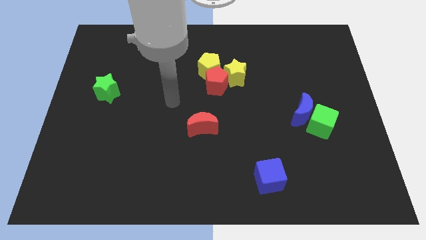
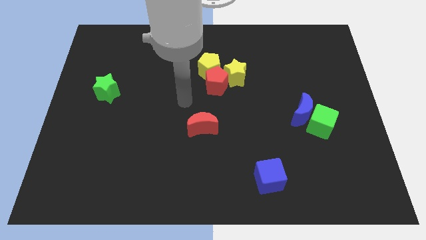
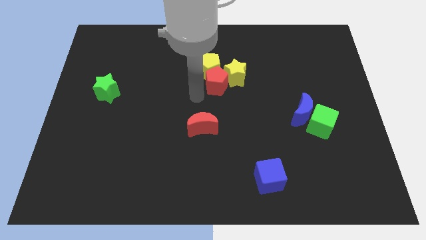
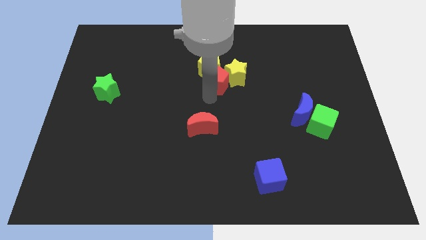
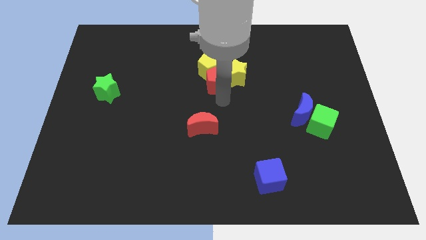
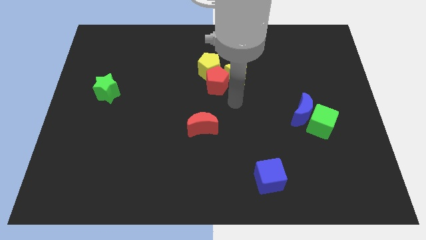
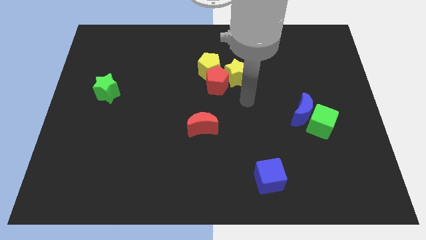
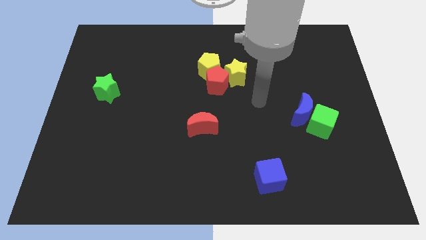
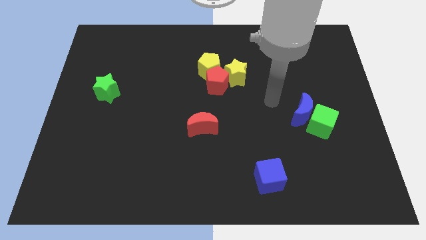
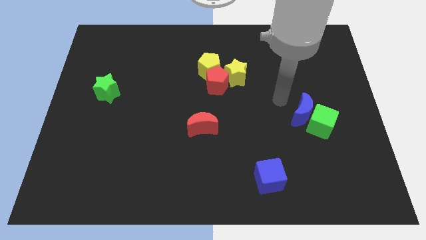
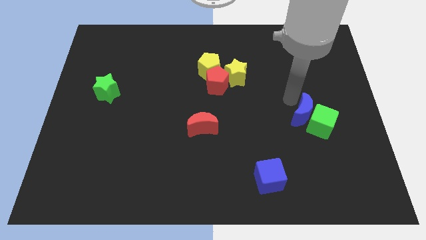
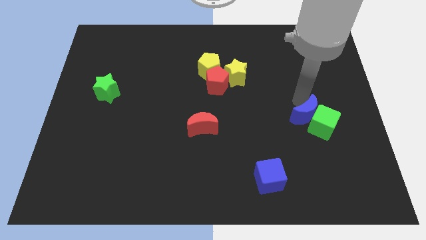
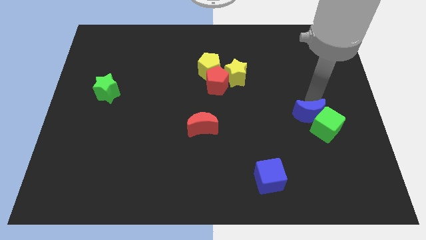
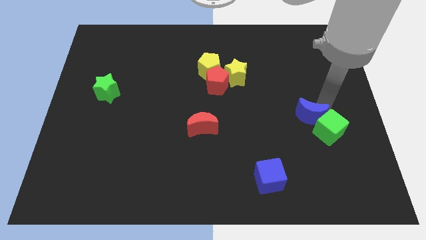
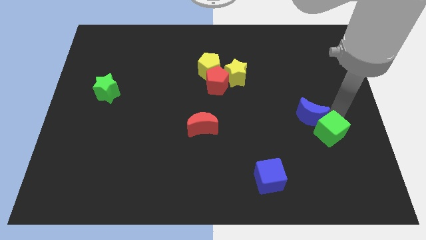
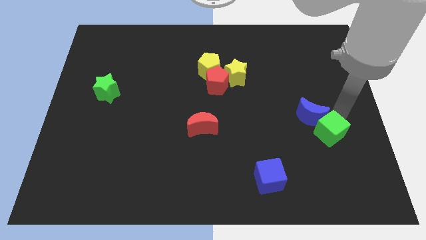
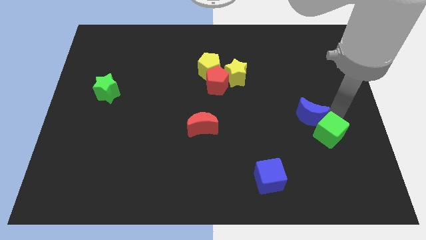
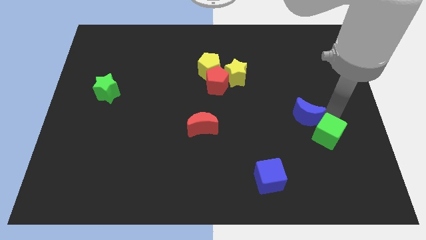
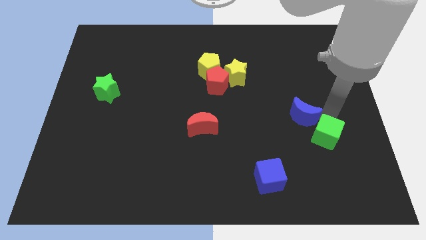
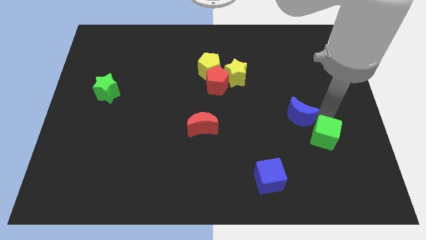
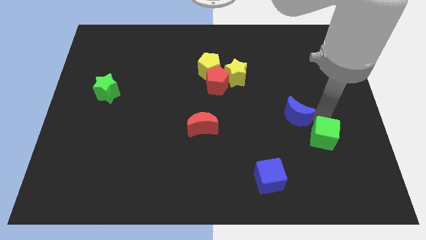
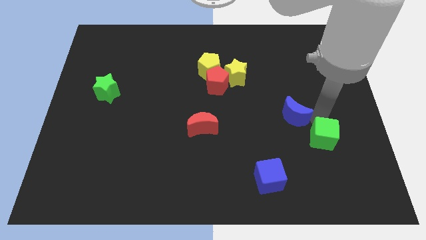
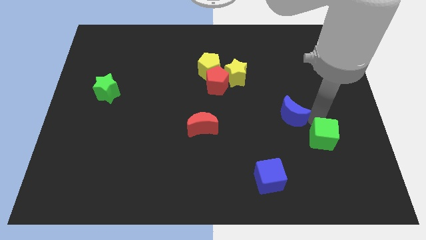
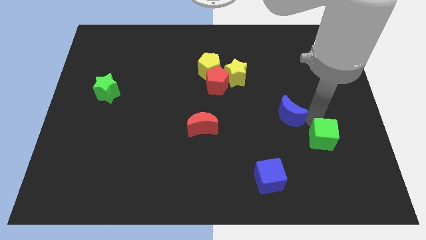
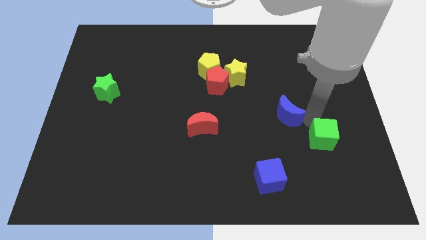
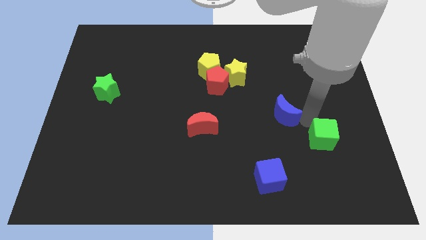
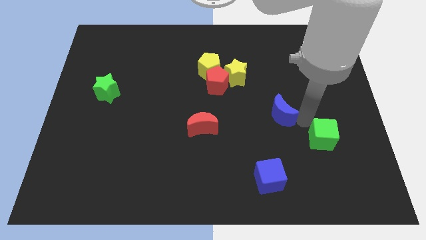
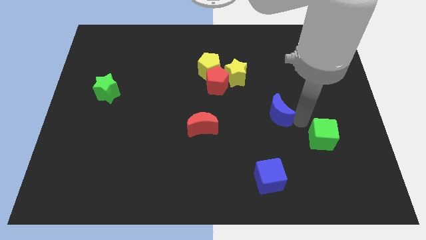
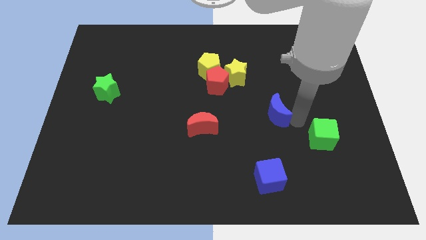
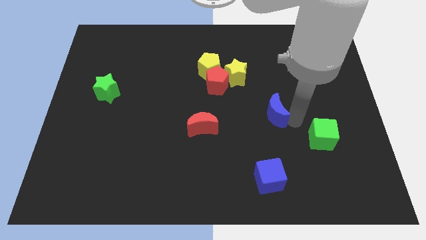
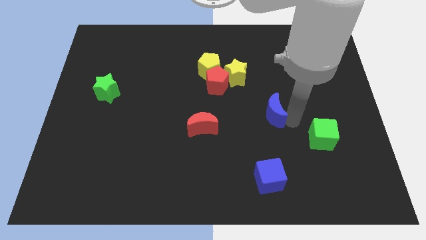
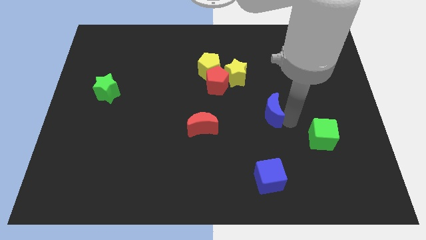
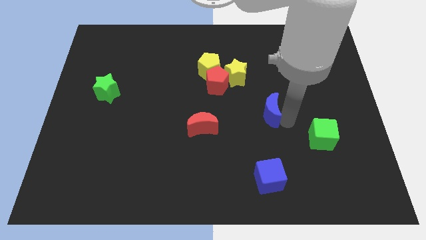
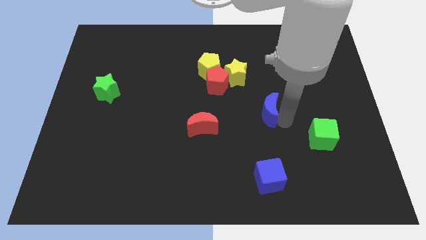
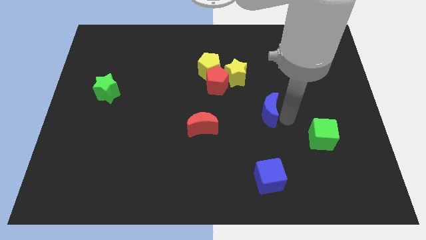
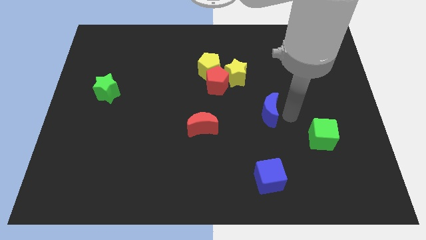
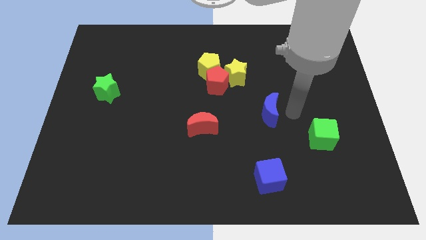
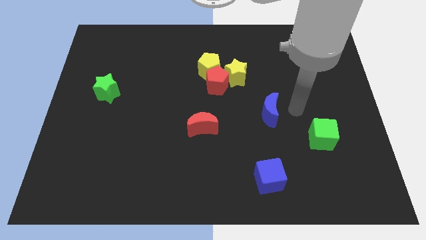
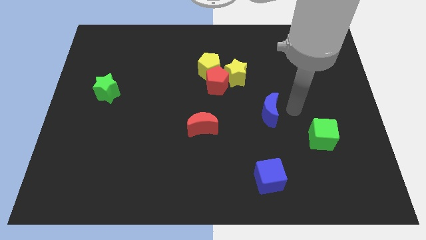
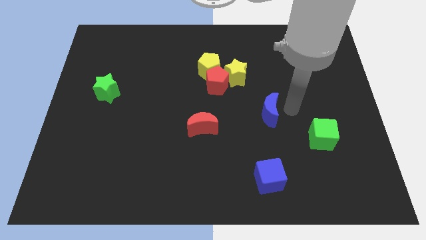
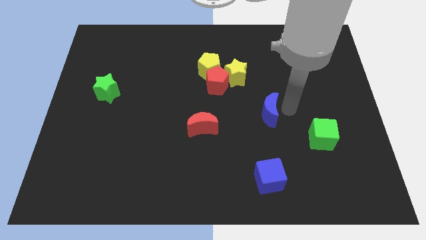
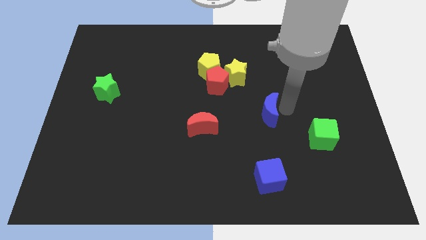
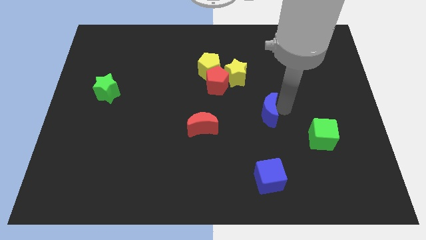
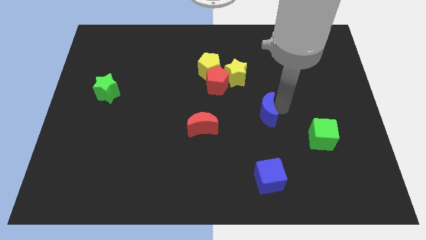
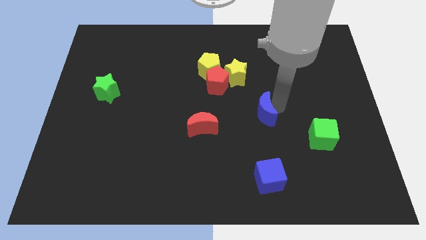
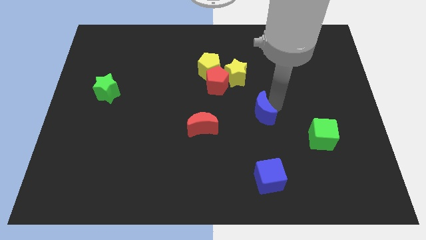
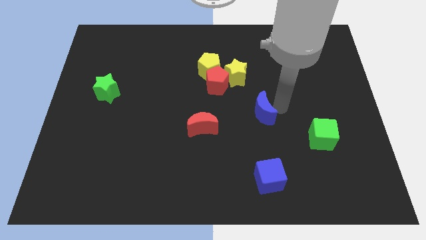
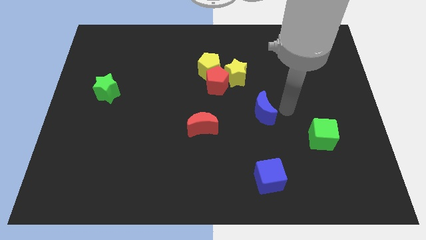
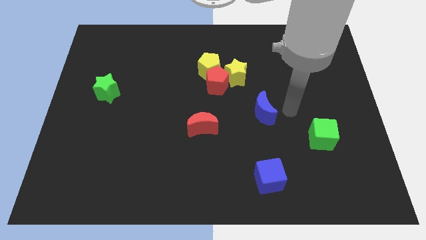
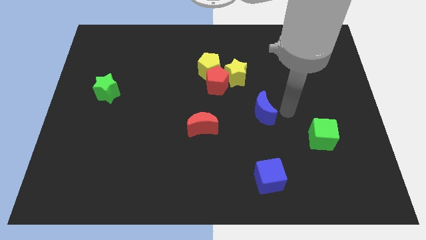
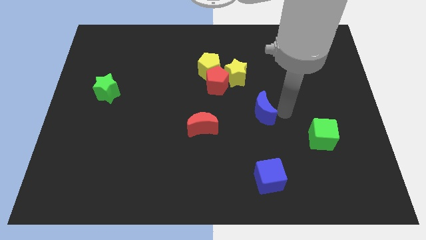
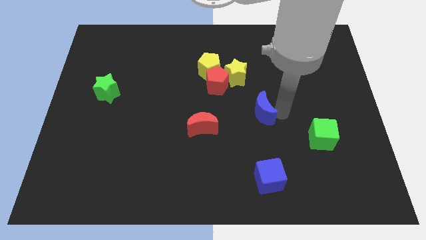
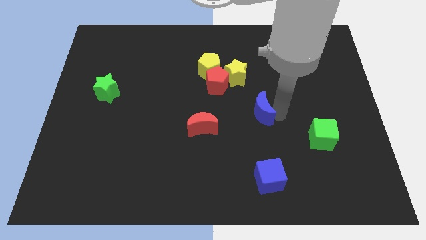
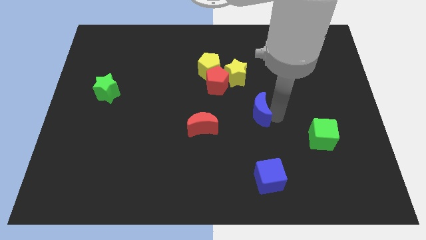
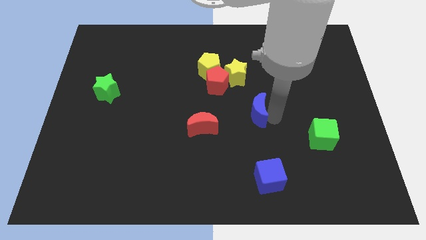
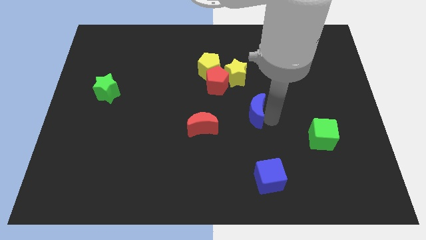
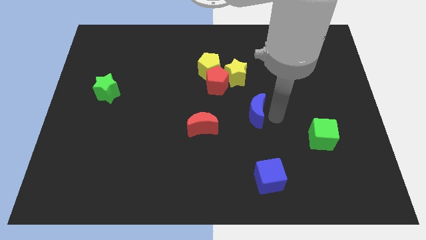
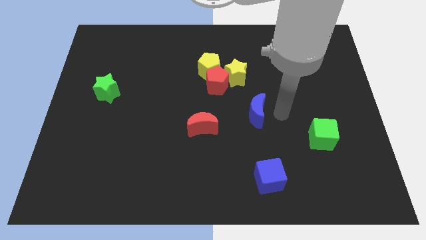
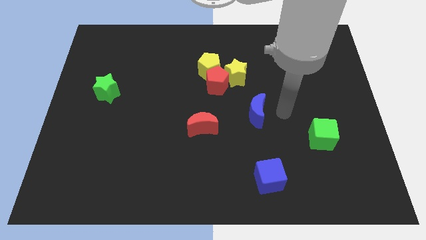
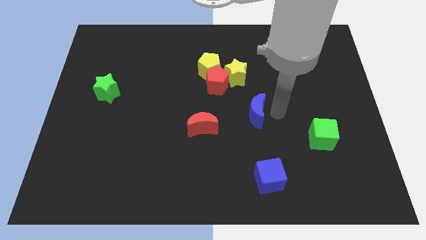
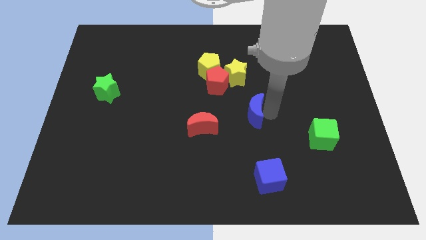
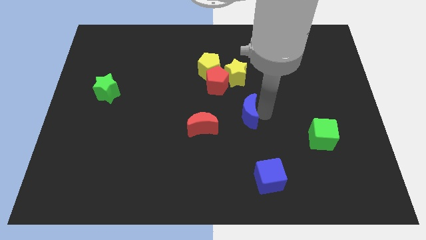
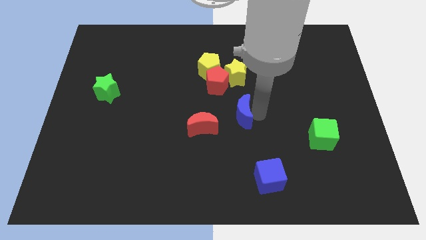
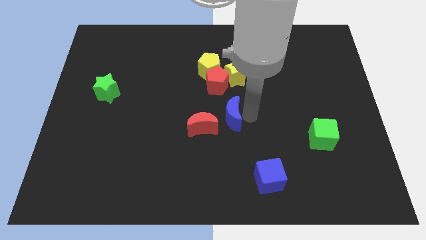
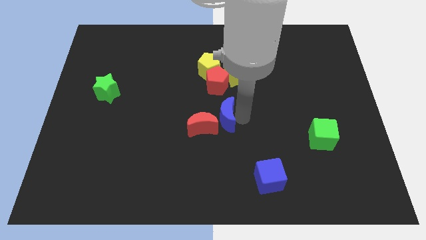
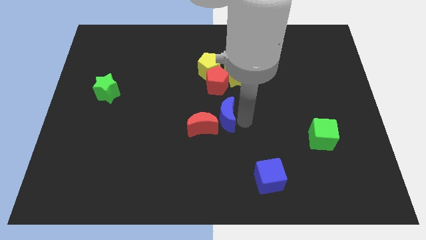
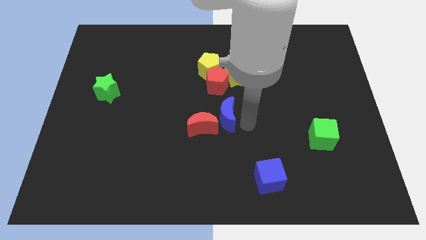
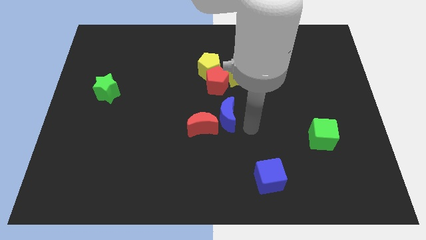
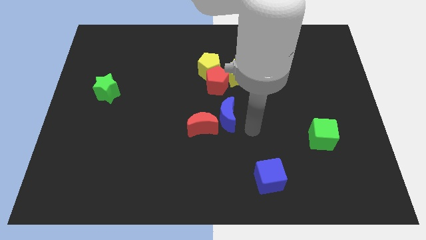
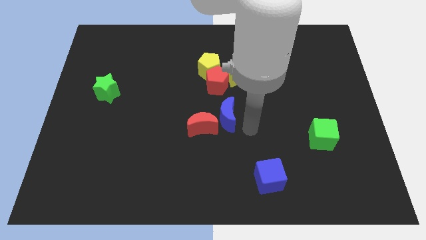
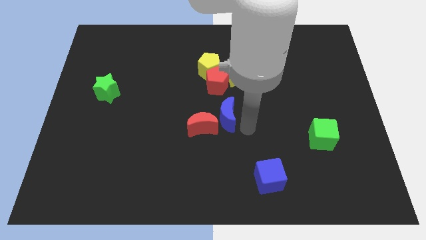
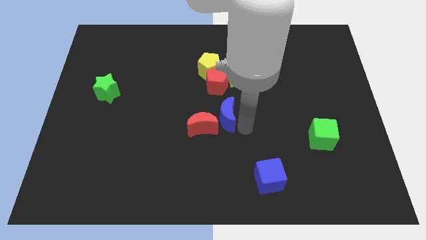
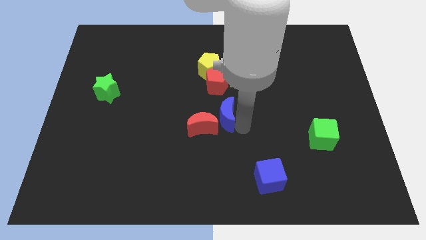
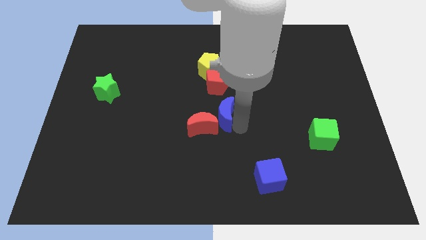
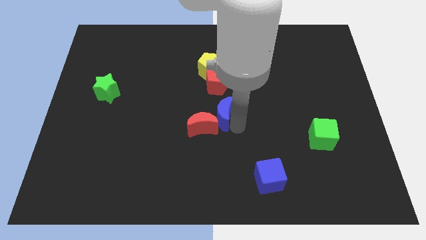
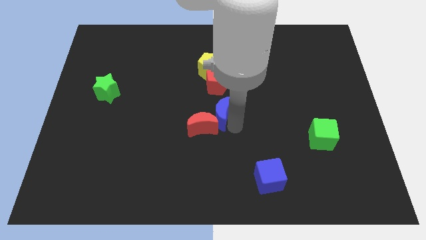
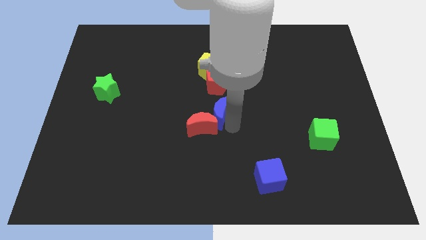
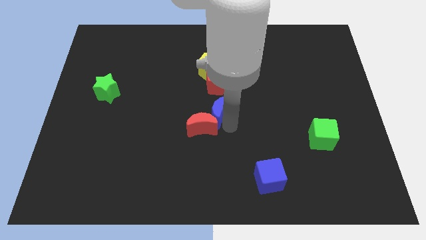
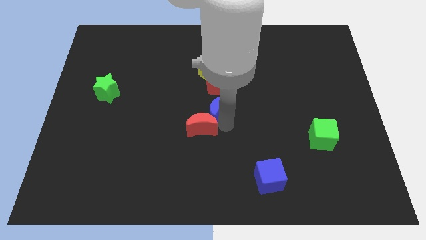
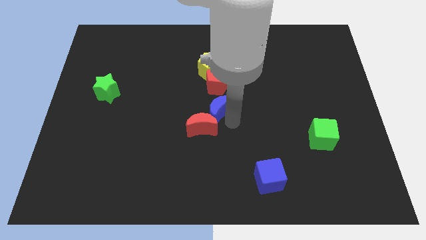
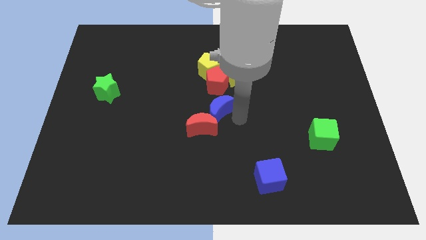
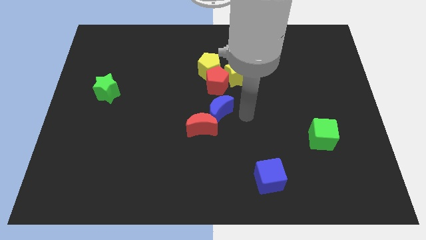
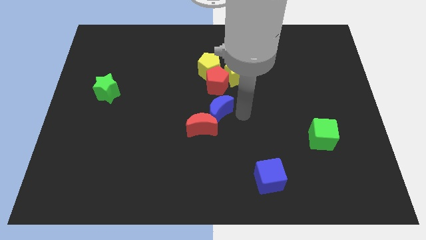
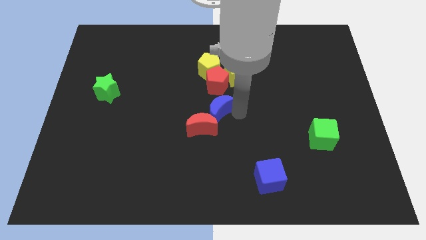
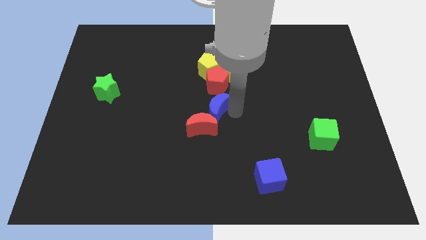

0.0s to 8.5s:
push the blue moon left
